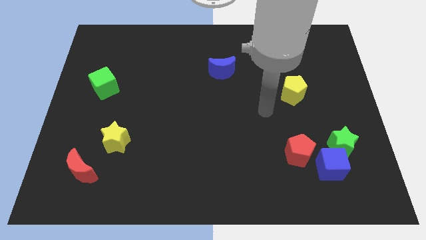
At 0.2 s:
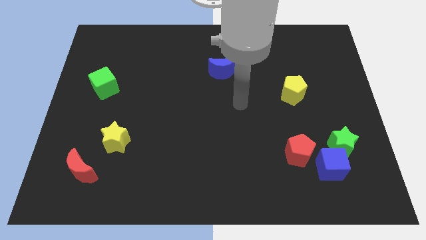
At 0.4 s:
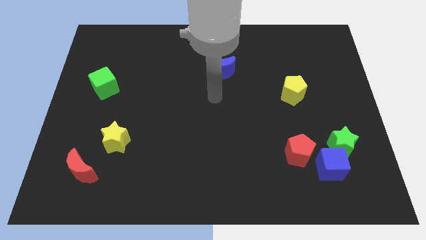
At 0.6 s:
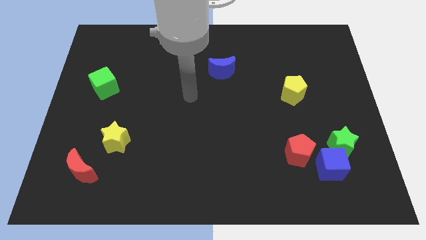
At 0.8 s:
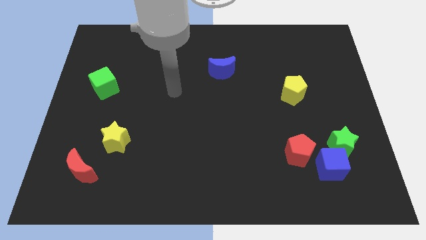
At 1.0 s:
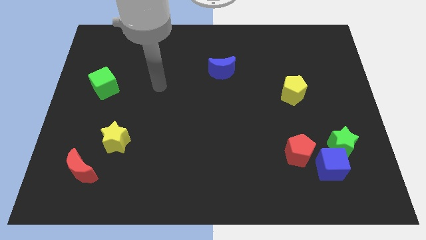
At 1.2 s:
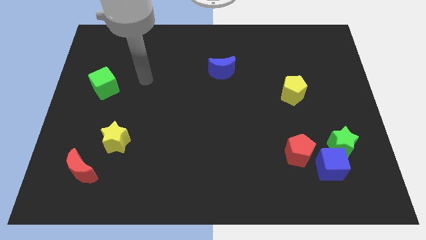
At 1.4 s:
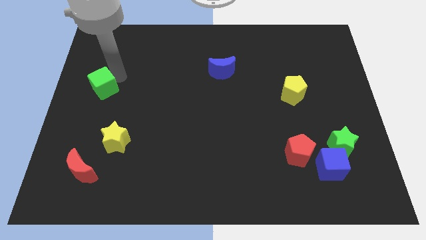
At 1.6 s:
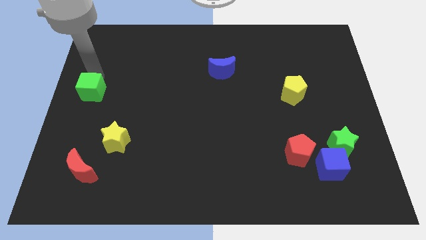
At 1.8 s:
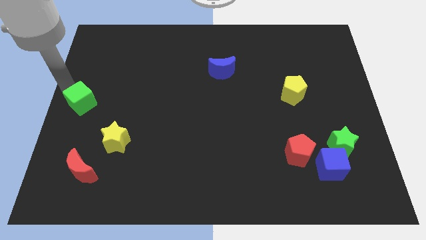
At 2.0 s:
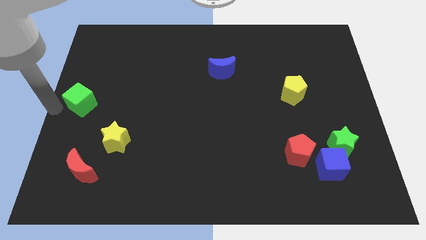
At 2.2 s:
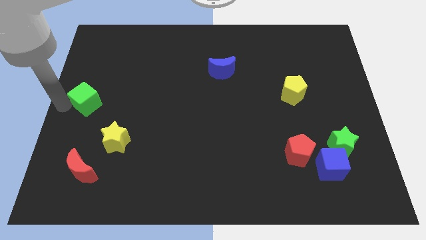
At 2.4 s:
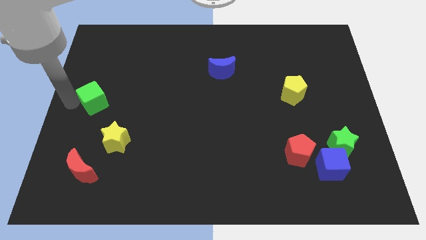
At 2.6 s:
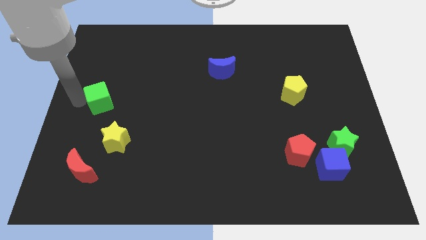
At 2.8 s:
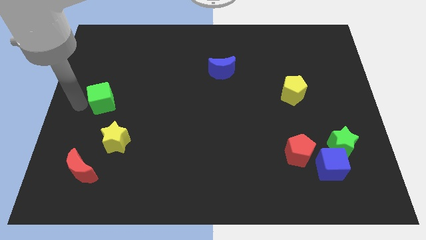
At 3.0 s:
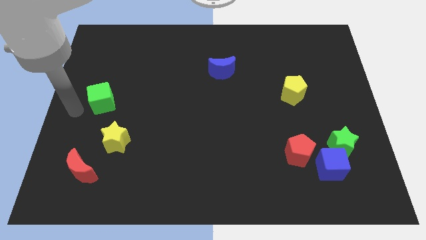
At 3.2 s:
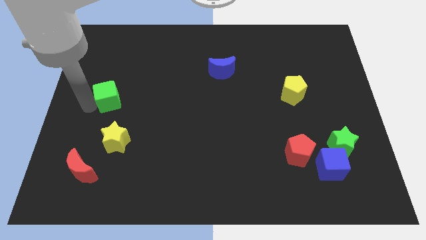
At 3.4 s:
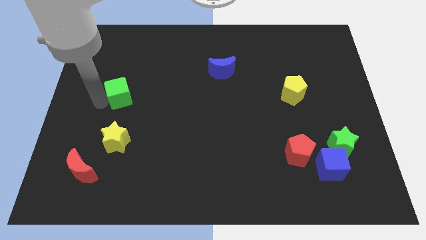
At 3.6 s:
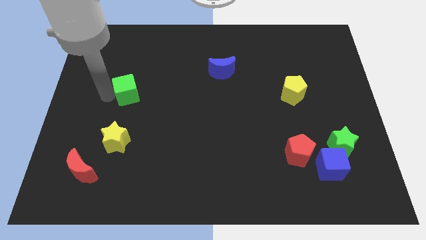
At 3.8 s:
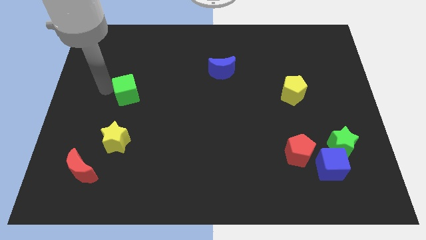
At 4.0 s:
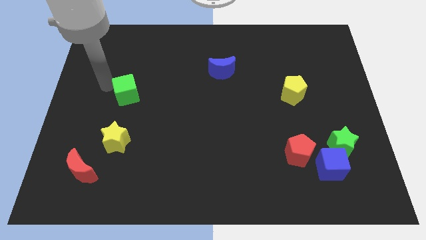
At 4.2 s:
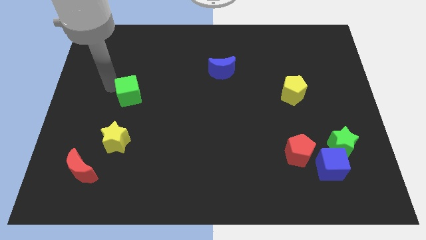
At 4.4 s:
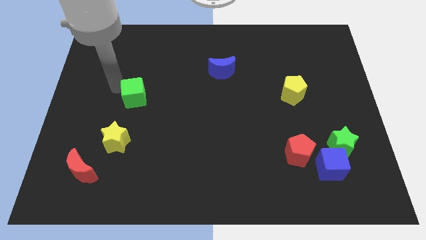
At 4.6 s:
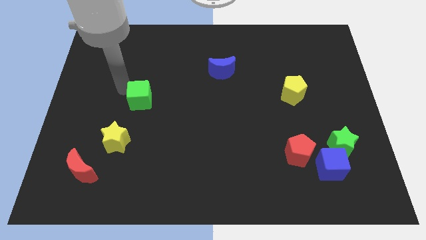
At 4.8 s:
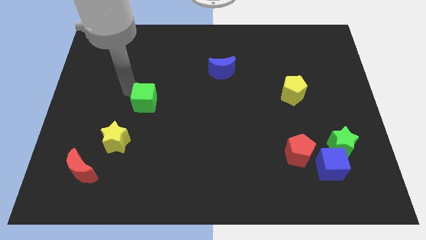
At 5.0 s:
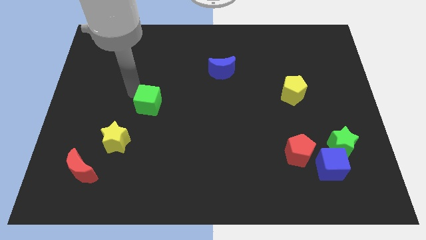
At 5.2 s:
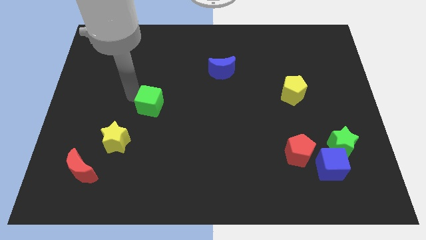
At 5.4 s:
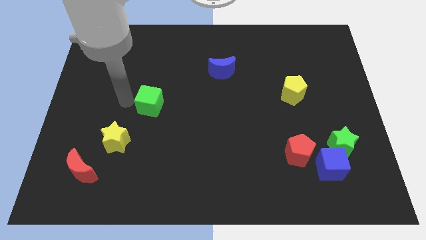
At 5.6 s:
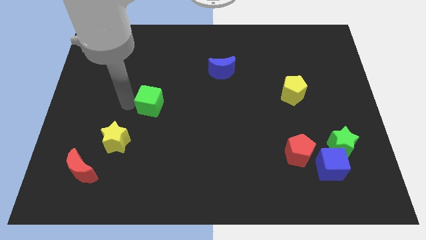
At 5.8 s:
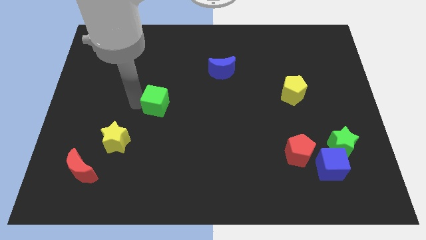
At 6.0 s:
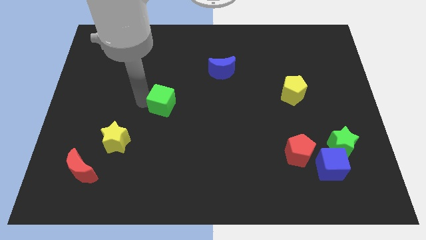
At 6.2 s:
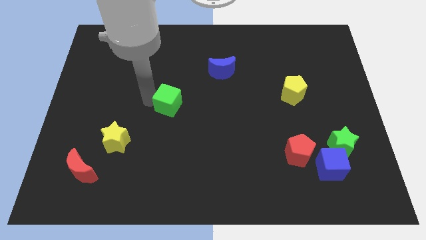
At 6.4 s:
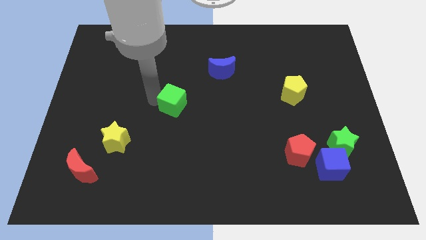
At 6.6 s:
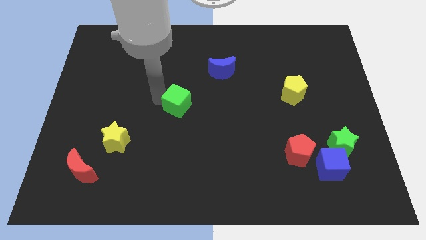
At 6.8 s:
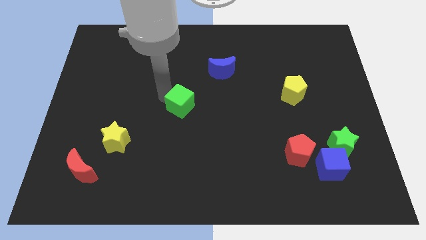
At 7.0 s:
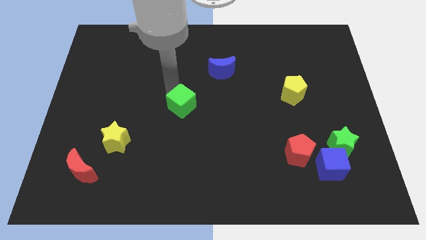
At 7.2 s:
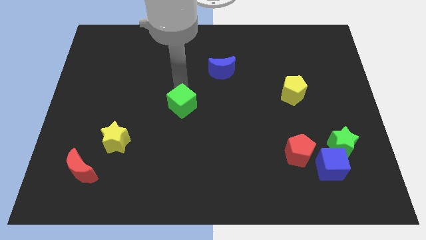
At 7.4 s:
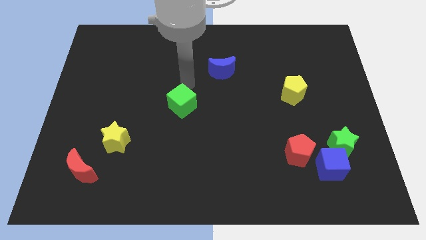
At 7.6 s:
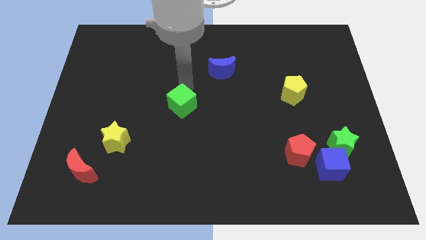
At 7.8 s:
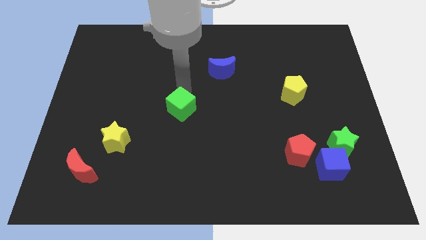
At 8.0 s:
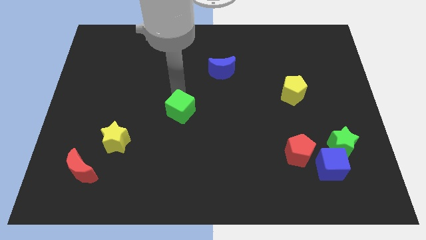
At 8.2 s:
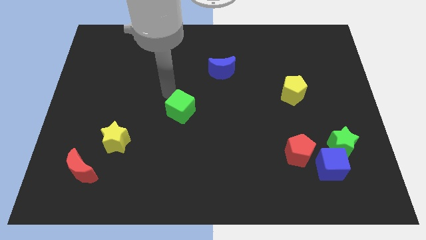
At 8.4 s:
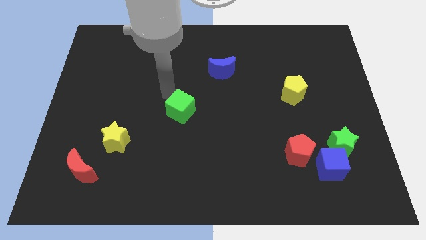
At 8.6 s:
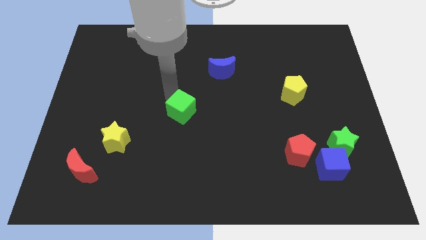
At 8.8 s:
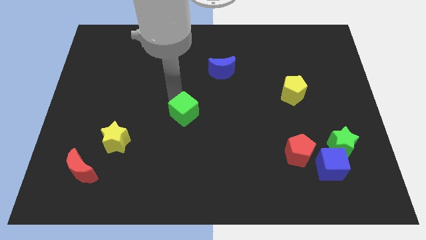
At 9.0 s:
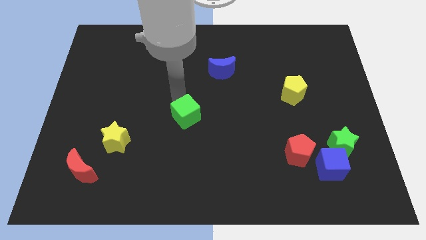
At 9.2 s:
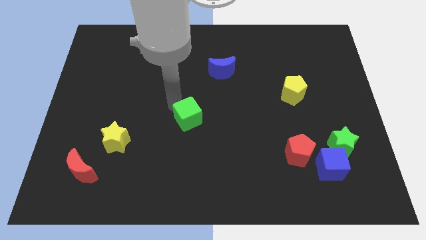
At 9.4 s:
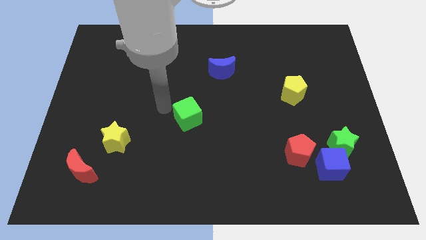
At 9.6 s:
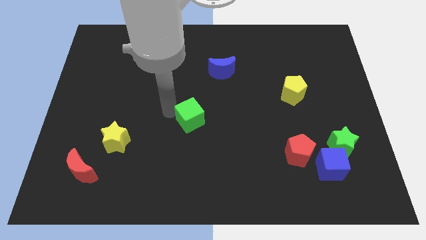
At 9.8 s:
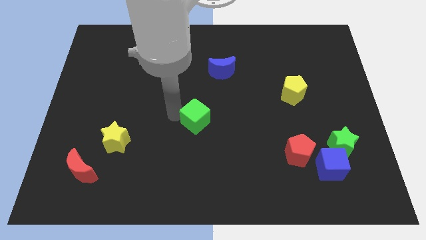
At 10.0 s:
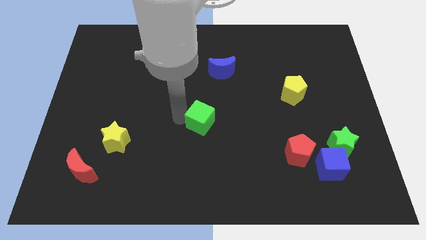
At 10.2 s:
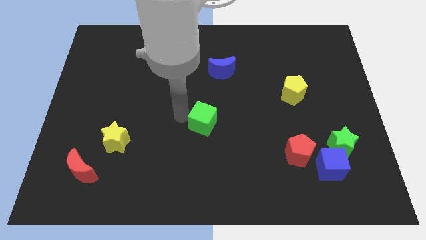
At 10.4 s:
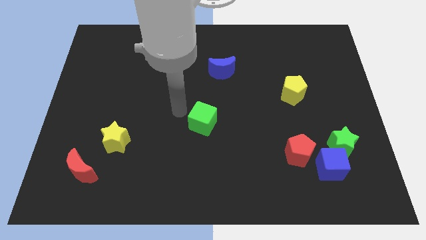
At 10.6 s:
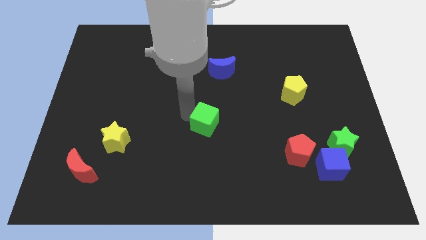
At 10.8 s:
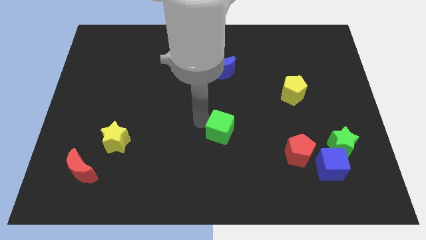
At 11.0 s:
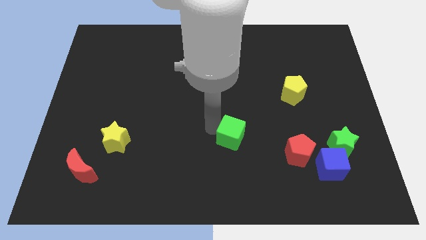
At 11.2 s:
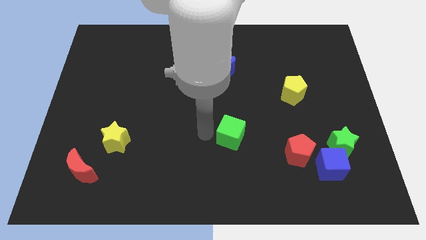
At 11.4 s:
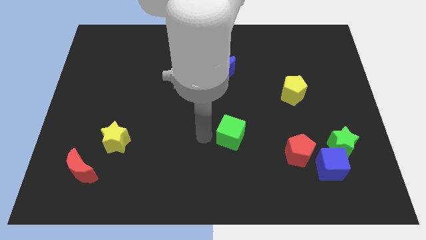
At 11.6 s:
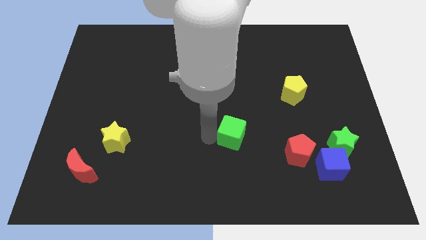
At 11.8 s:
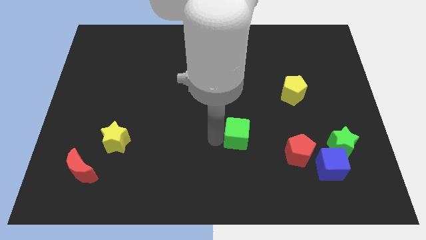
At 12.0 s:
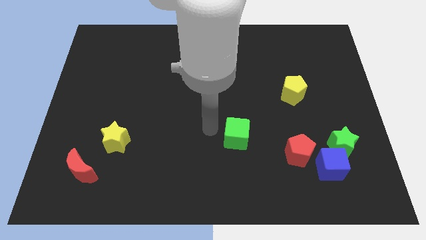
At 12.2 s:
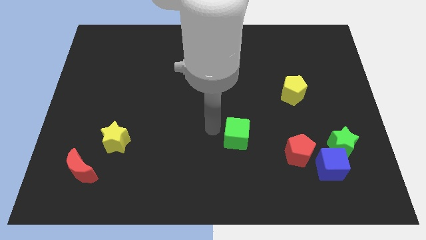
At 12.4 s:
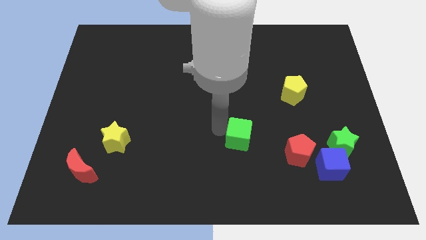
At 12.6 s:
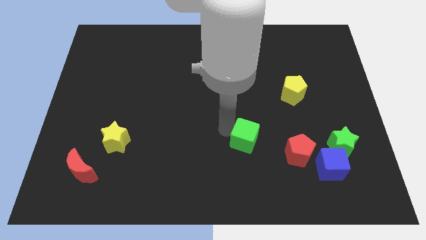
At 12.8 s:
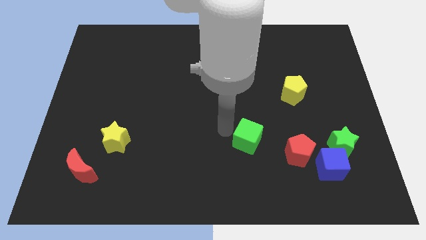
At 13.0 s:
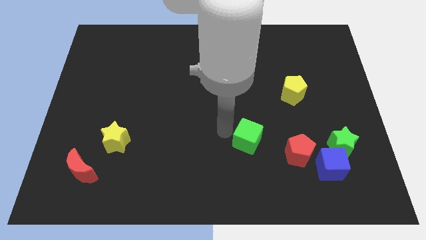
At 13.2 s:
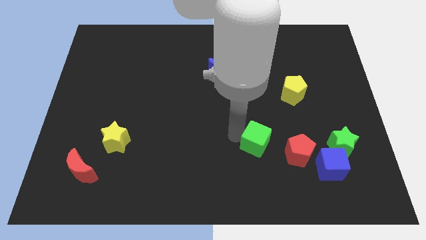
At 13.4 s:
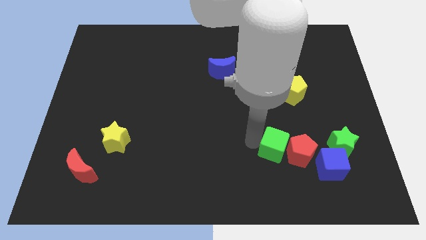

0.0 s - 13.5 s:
slide the green cube close to the red pentagon
